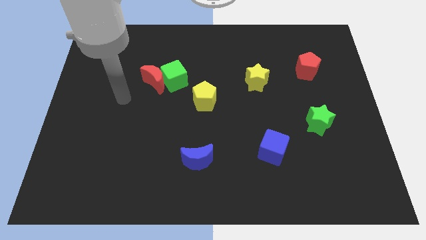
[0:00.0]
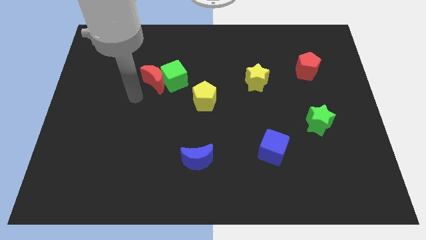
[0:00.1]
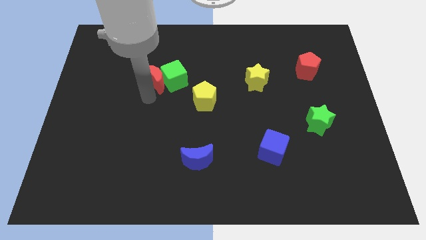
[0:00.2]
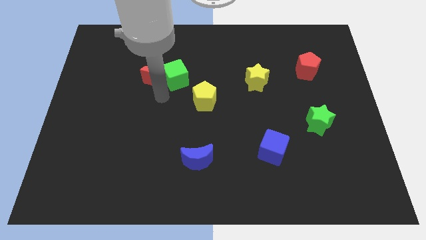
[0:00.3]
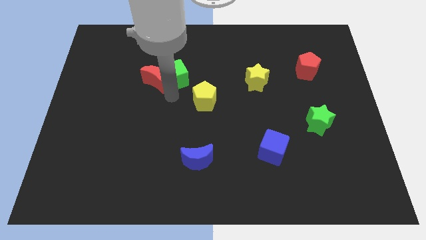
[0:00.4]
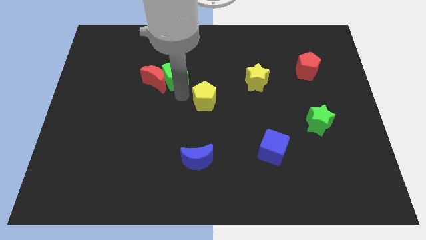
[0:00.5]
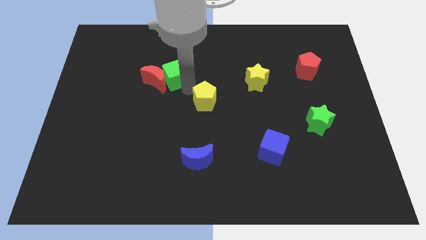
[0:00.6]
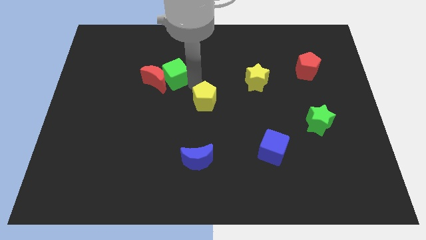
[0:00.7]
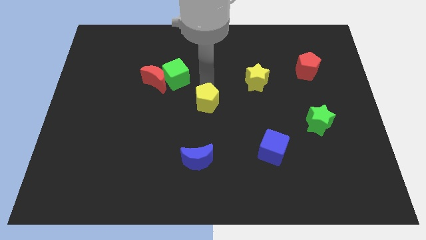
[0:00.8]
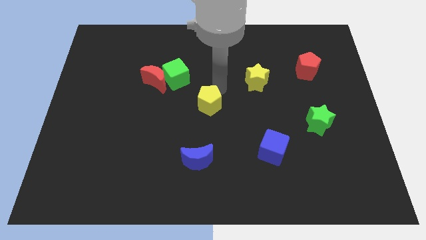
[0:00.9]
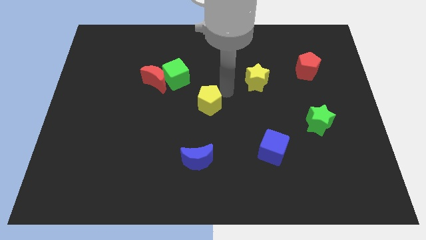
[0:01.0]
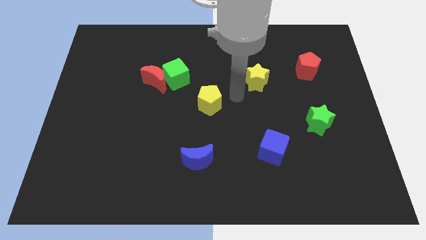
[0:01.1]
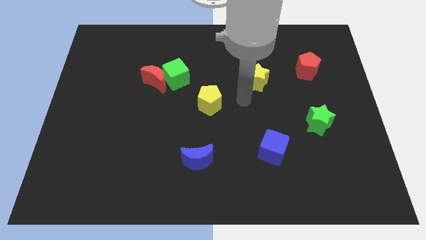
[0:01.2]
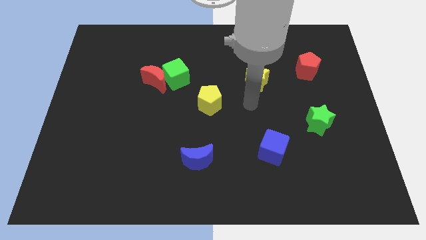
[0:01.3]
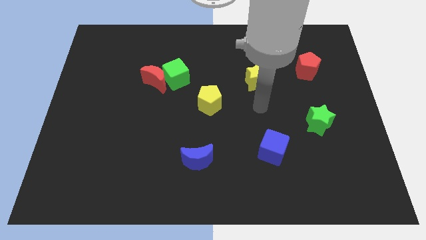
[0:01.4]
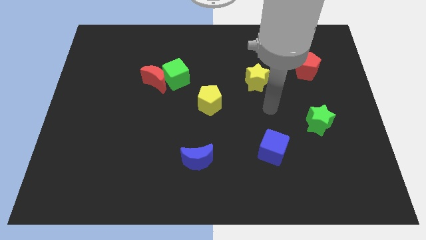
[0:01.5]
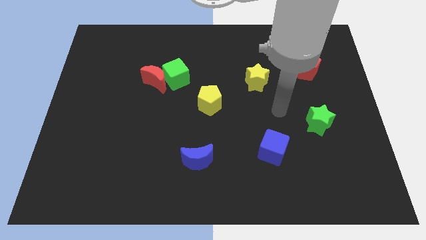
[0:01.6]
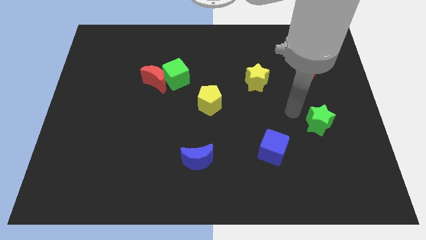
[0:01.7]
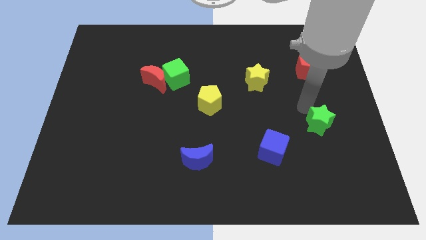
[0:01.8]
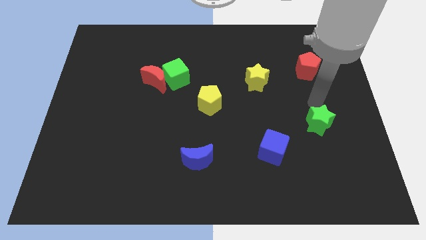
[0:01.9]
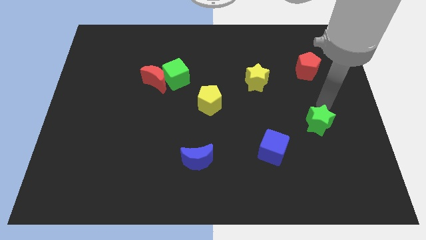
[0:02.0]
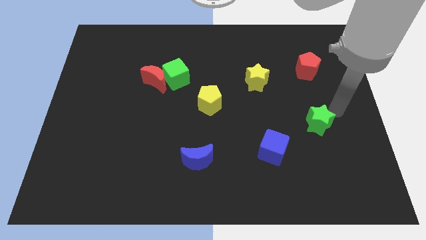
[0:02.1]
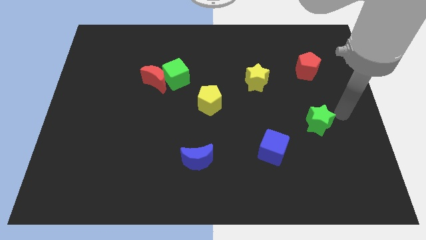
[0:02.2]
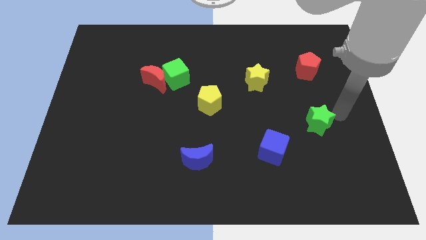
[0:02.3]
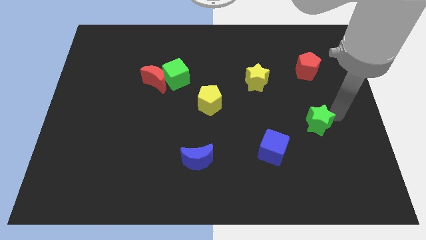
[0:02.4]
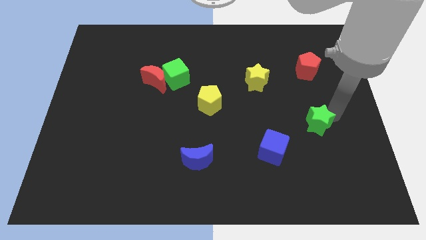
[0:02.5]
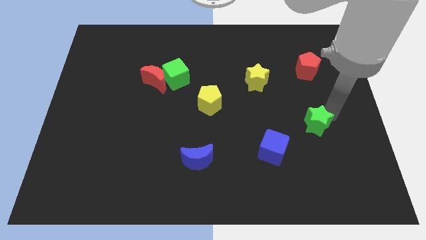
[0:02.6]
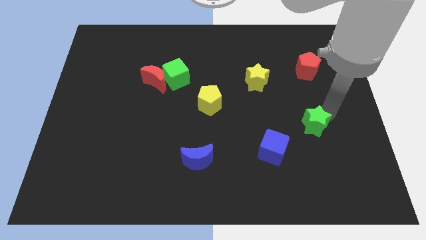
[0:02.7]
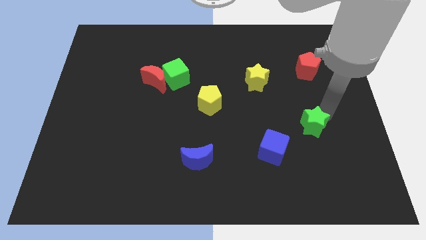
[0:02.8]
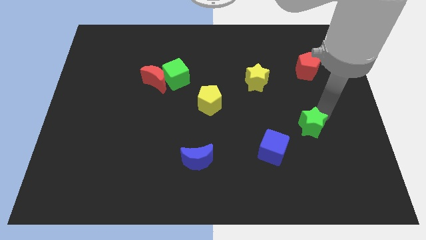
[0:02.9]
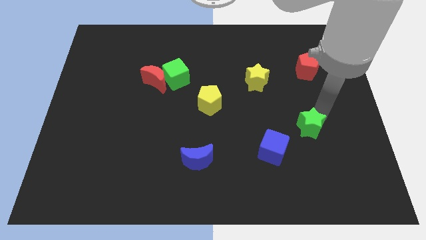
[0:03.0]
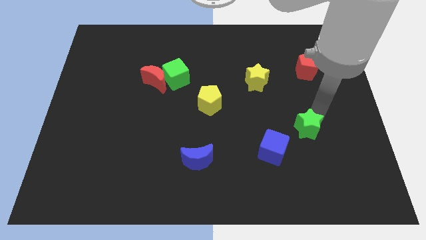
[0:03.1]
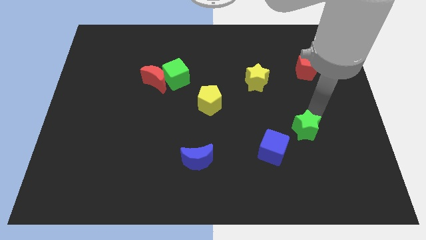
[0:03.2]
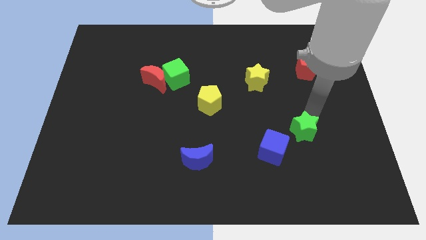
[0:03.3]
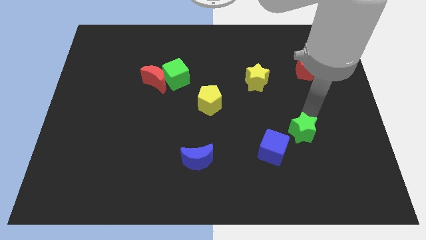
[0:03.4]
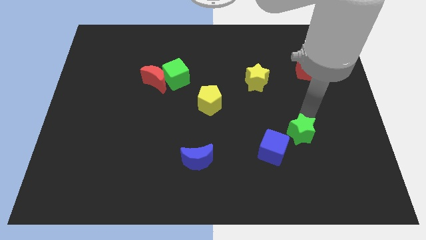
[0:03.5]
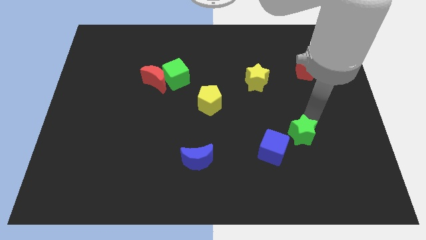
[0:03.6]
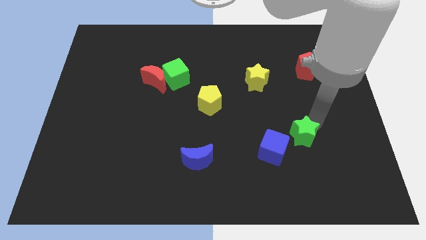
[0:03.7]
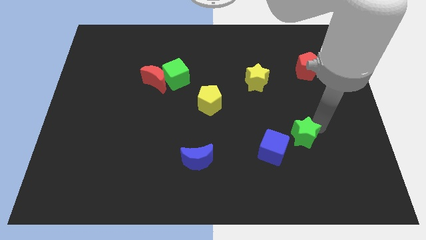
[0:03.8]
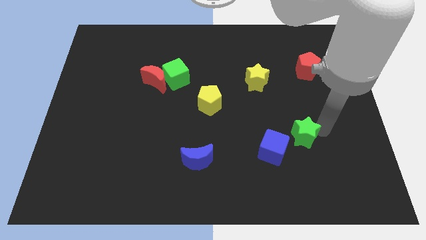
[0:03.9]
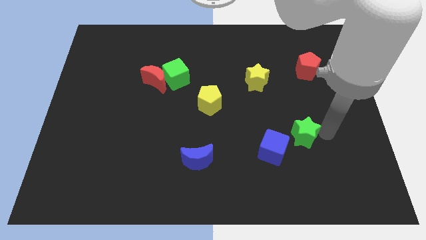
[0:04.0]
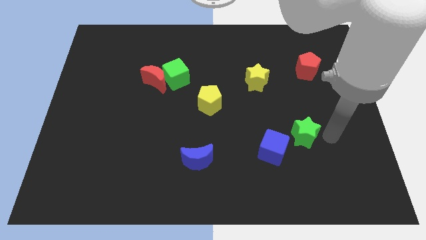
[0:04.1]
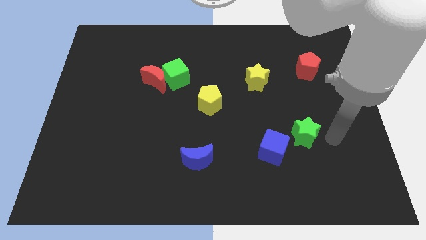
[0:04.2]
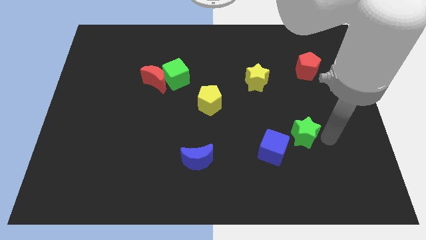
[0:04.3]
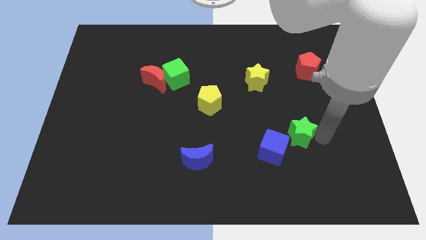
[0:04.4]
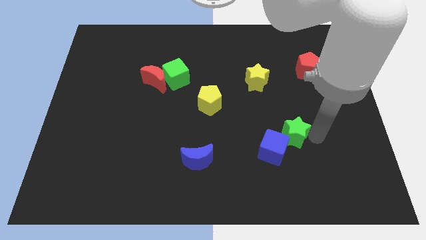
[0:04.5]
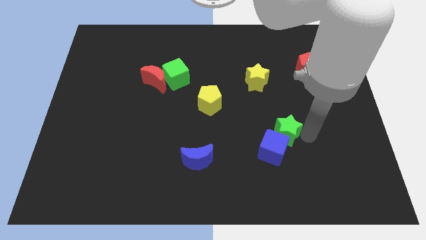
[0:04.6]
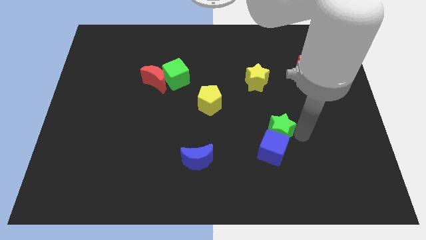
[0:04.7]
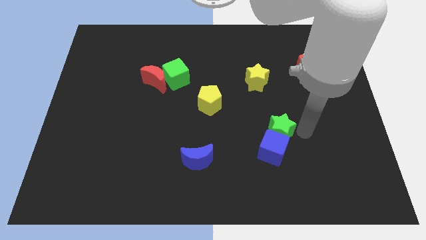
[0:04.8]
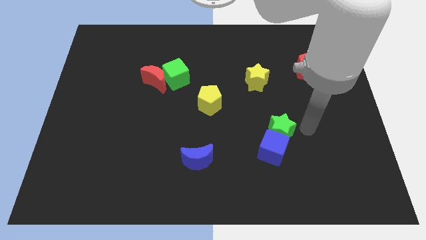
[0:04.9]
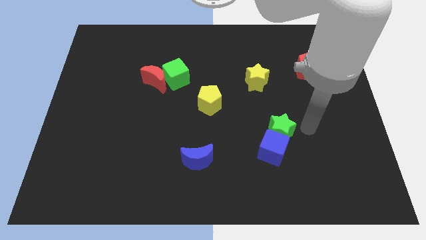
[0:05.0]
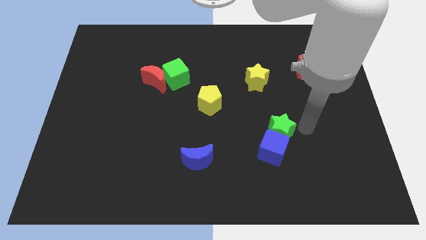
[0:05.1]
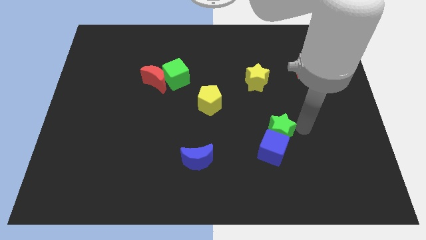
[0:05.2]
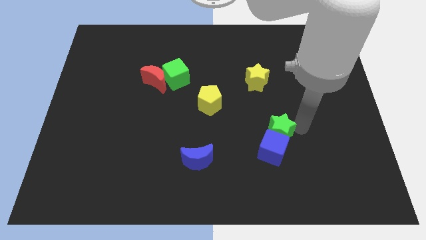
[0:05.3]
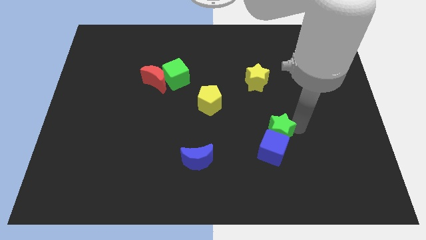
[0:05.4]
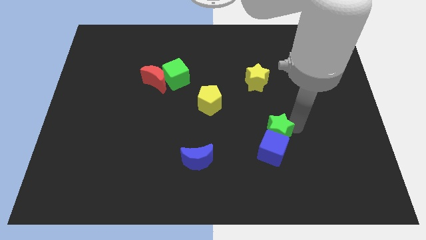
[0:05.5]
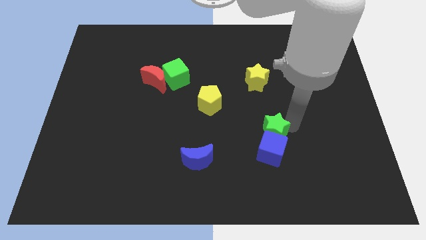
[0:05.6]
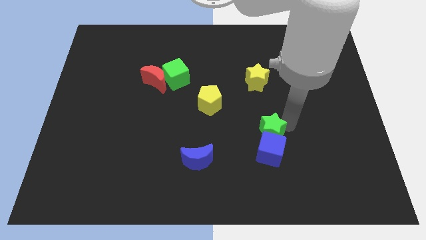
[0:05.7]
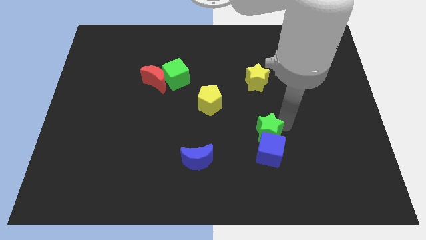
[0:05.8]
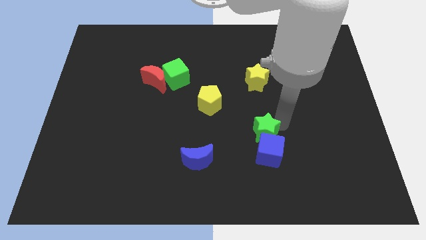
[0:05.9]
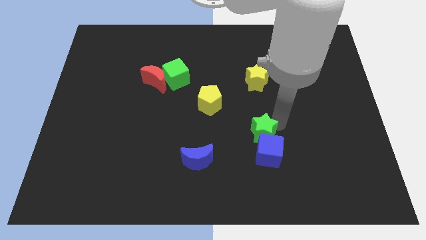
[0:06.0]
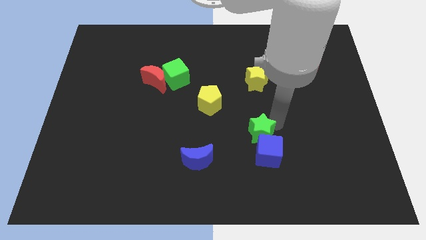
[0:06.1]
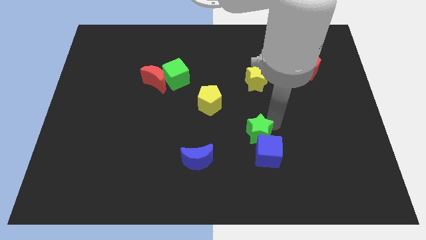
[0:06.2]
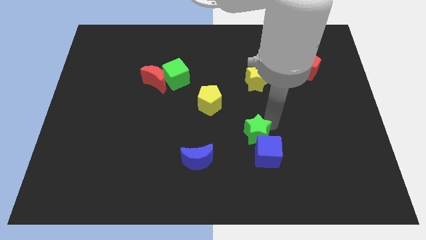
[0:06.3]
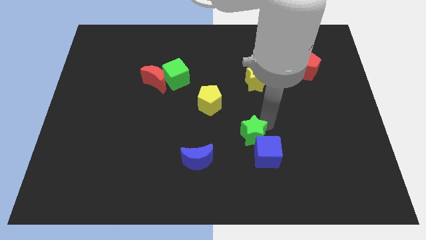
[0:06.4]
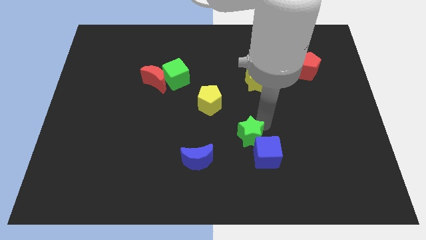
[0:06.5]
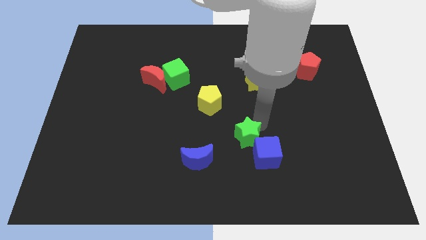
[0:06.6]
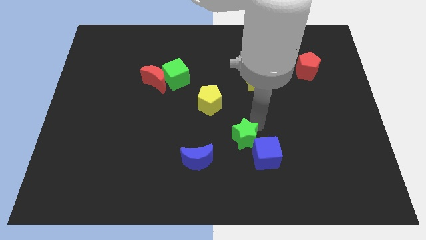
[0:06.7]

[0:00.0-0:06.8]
slide the green star diagonally up and to the right of the blue moon
